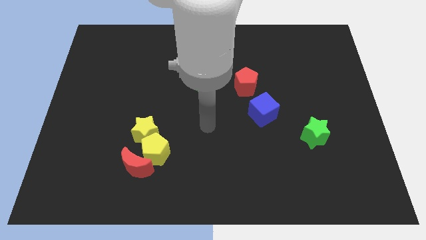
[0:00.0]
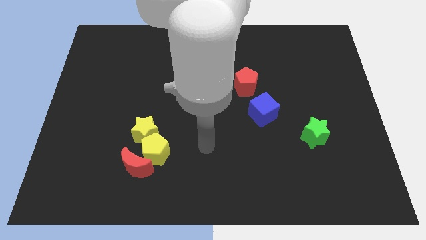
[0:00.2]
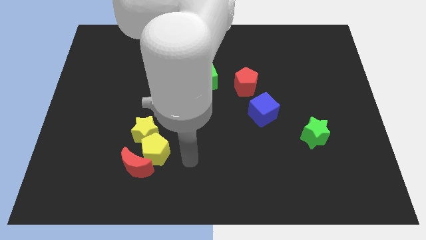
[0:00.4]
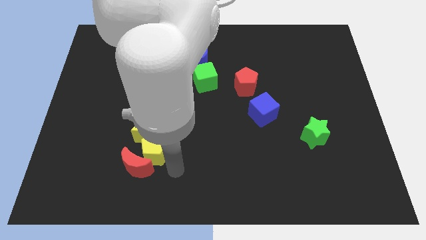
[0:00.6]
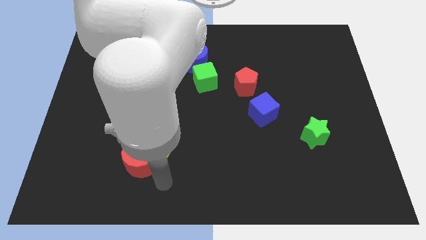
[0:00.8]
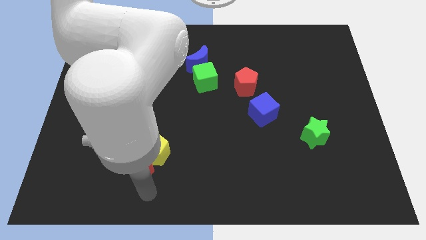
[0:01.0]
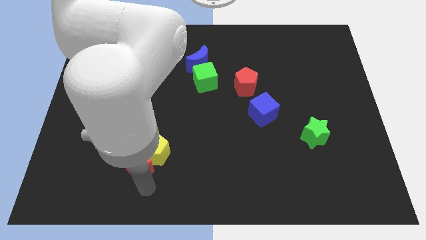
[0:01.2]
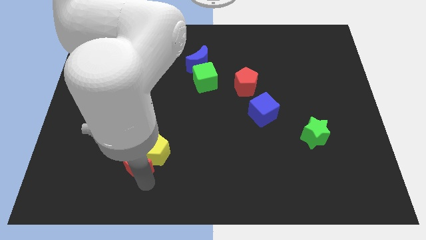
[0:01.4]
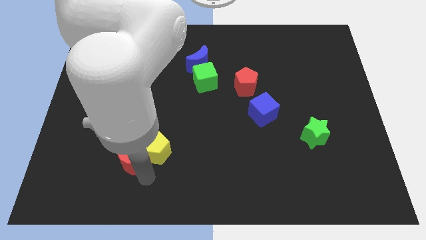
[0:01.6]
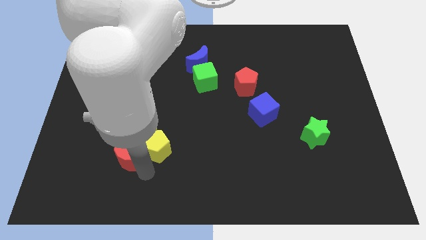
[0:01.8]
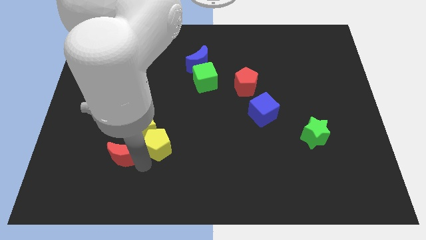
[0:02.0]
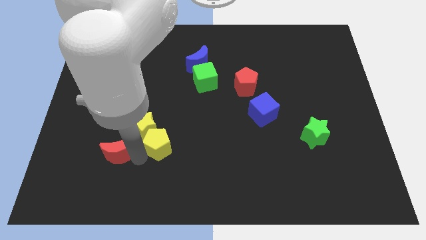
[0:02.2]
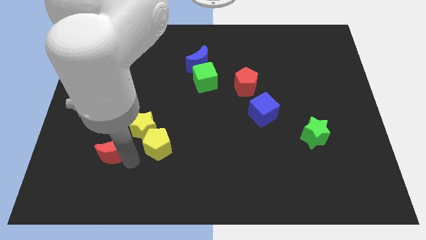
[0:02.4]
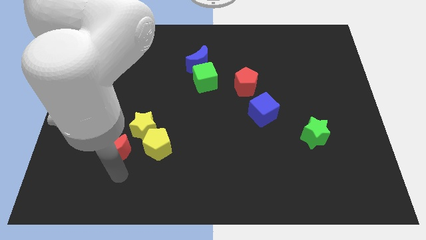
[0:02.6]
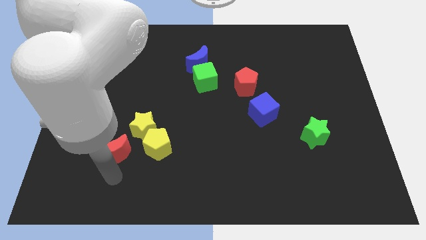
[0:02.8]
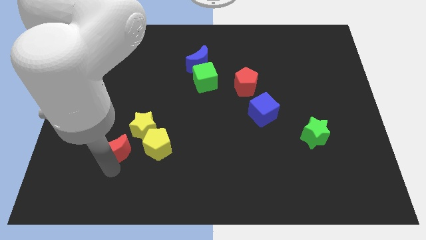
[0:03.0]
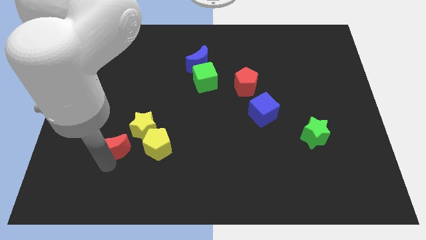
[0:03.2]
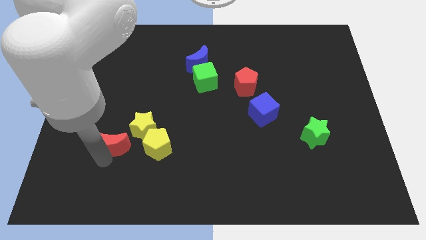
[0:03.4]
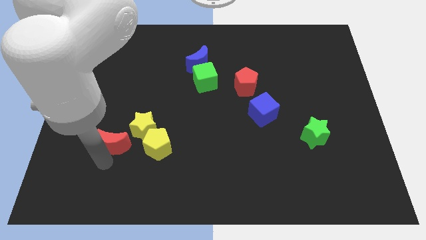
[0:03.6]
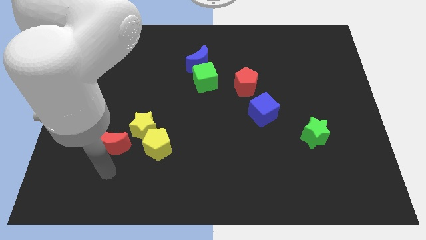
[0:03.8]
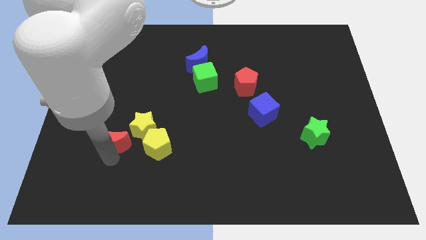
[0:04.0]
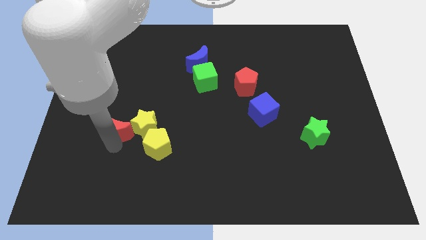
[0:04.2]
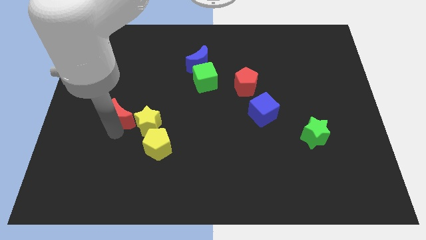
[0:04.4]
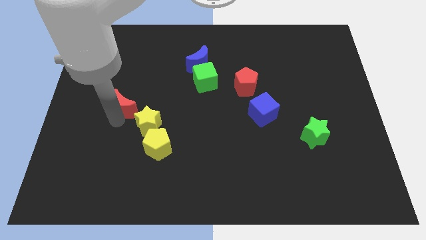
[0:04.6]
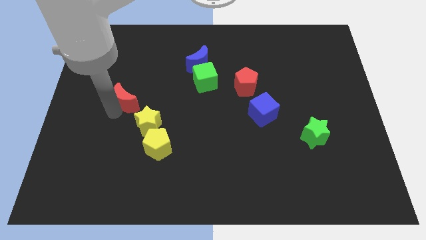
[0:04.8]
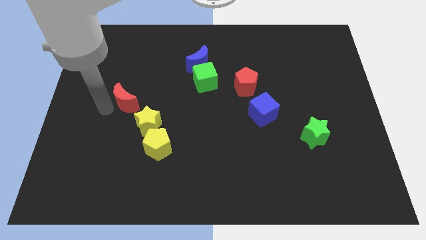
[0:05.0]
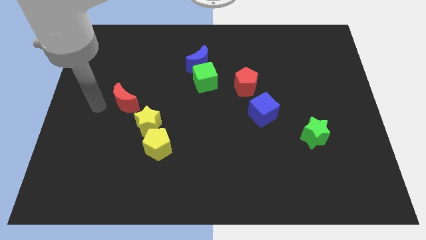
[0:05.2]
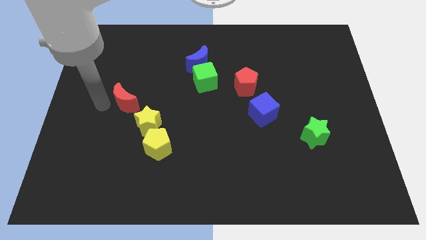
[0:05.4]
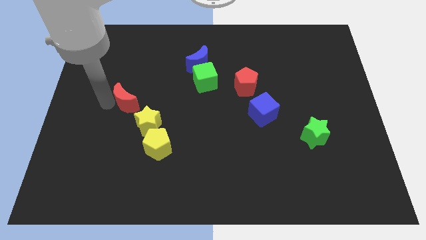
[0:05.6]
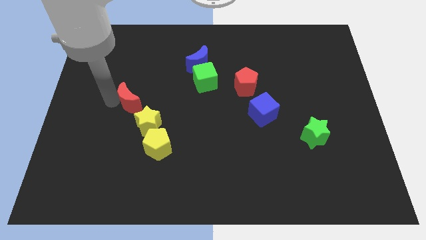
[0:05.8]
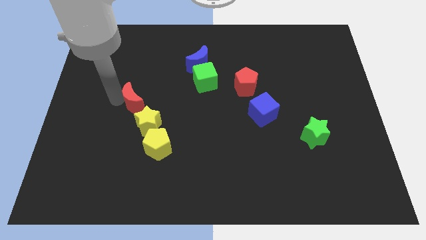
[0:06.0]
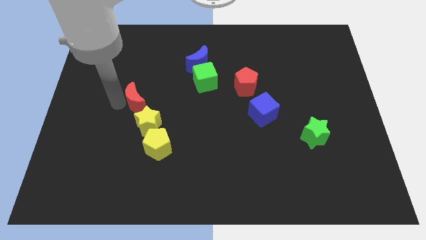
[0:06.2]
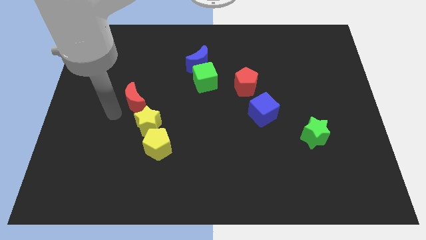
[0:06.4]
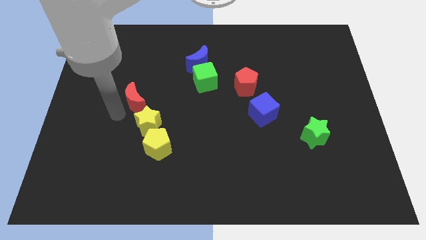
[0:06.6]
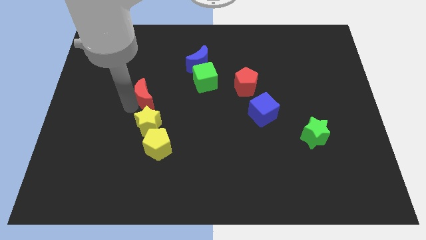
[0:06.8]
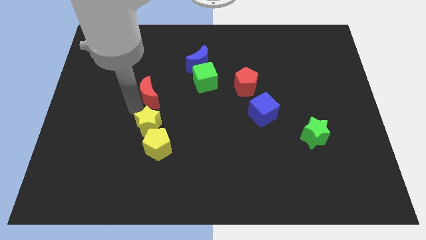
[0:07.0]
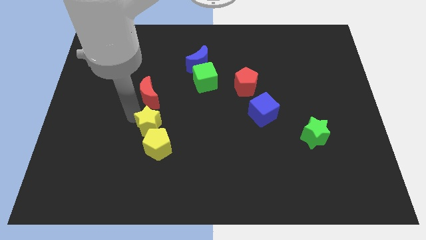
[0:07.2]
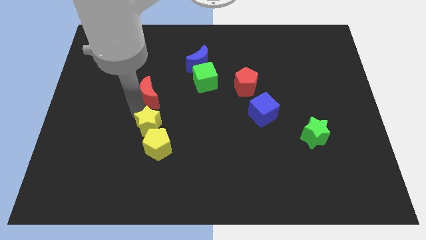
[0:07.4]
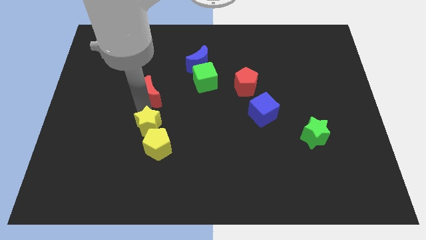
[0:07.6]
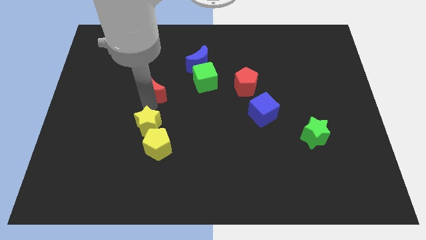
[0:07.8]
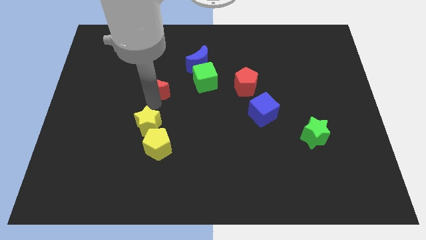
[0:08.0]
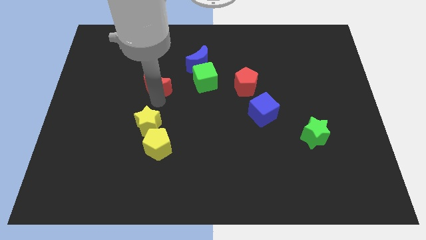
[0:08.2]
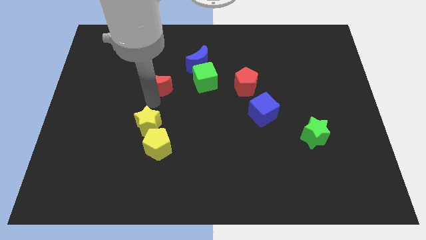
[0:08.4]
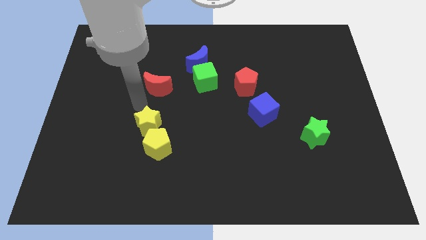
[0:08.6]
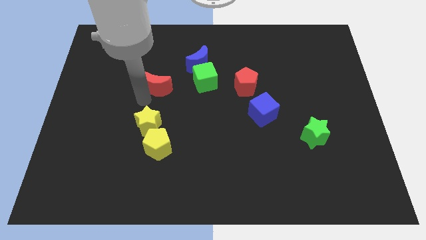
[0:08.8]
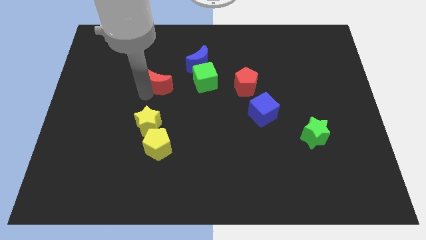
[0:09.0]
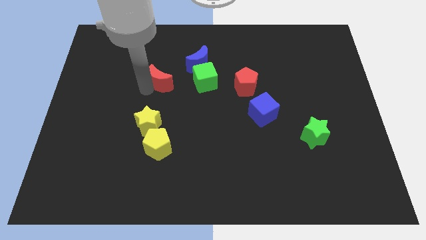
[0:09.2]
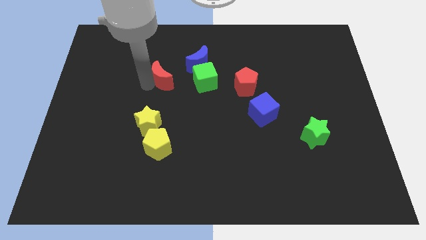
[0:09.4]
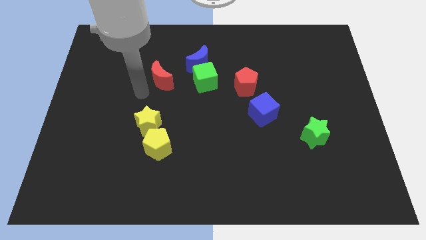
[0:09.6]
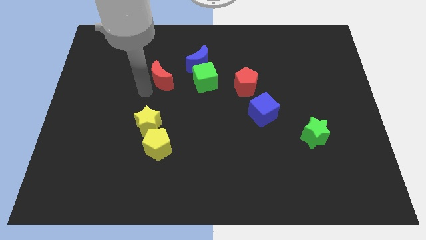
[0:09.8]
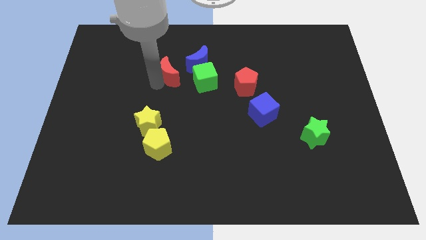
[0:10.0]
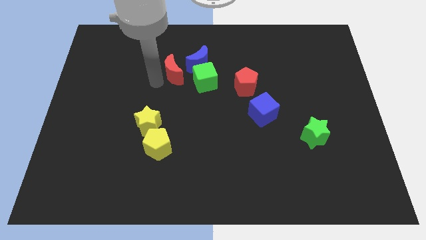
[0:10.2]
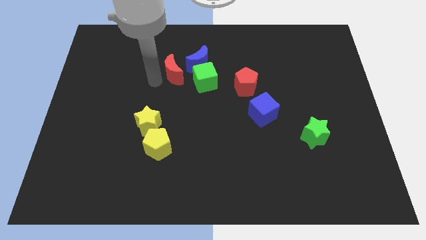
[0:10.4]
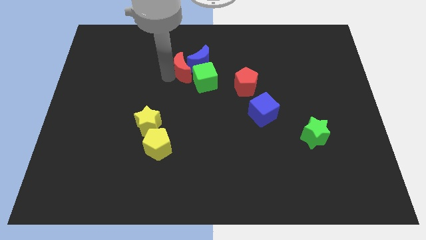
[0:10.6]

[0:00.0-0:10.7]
put the red moon to the blue moon

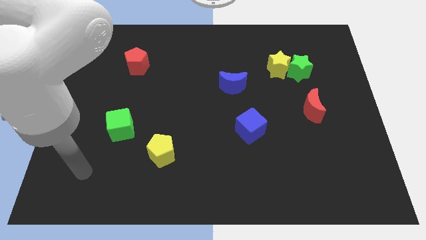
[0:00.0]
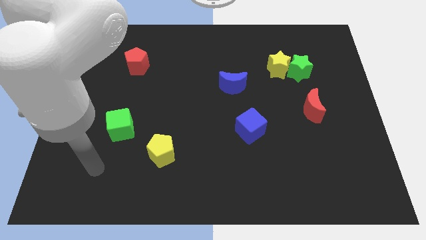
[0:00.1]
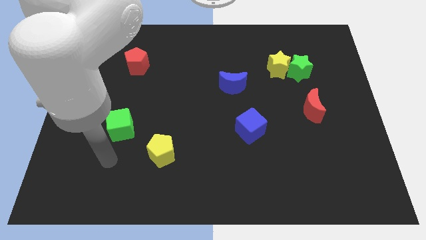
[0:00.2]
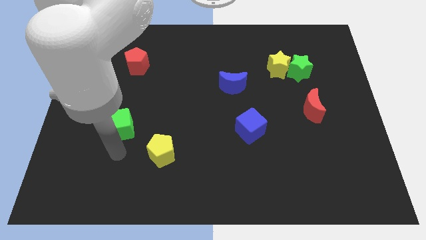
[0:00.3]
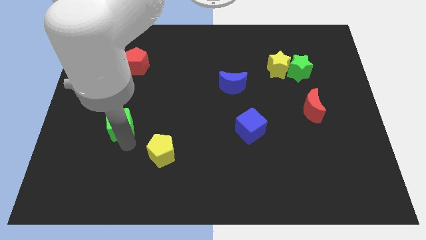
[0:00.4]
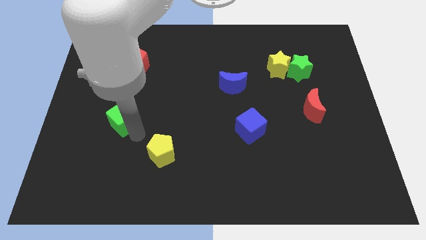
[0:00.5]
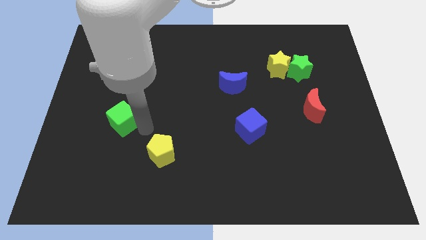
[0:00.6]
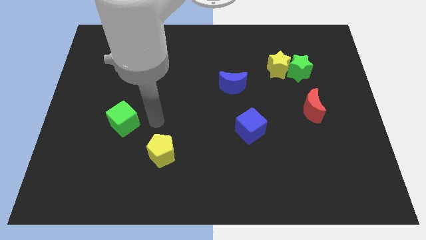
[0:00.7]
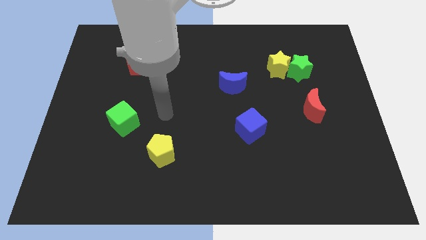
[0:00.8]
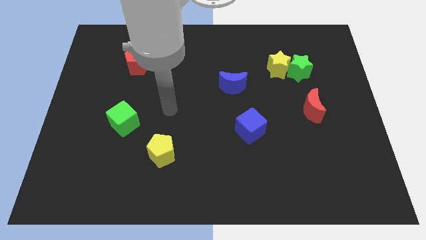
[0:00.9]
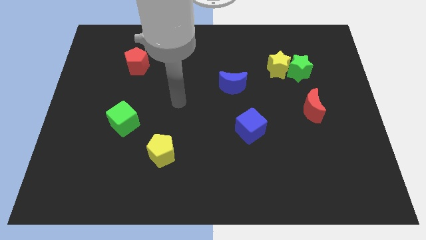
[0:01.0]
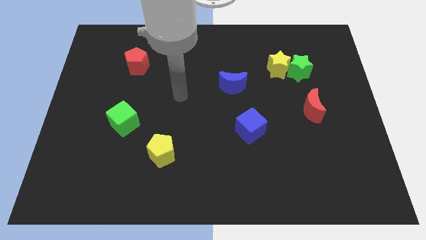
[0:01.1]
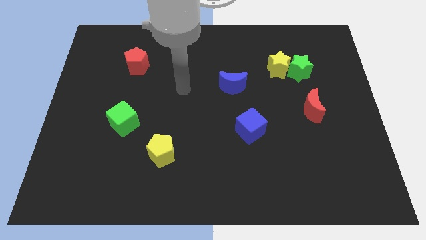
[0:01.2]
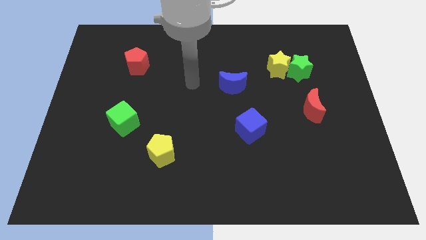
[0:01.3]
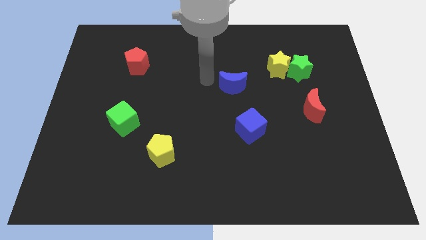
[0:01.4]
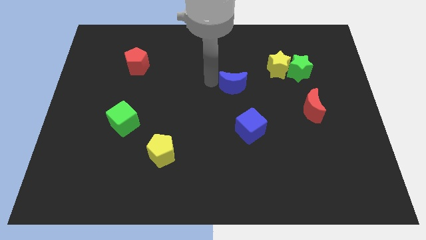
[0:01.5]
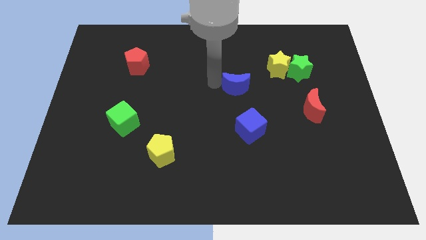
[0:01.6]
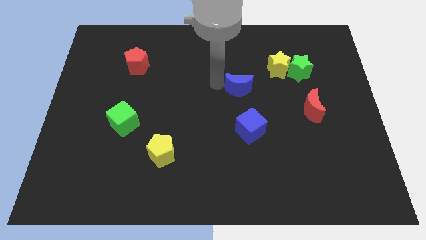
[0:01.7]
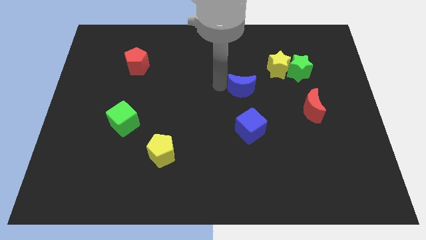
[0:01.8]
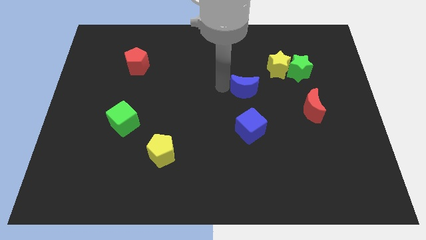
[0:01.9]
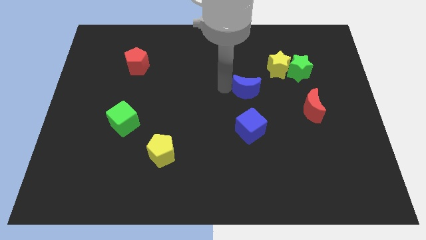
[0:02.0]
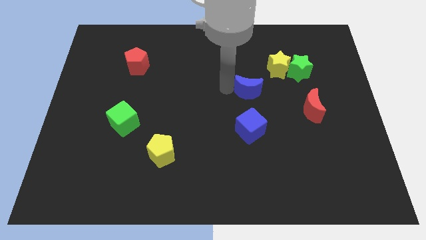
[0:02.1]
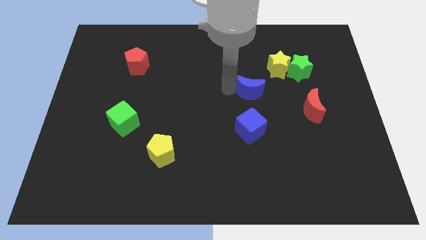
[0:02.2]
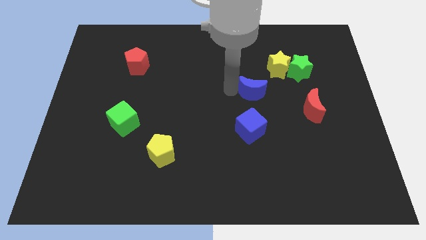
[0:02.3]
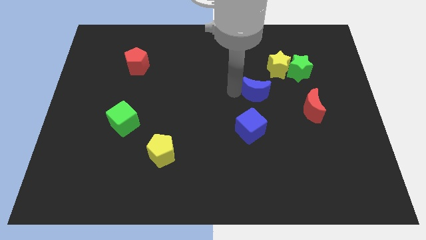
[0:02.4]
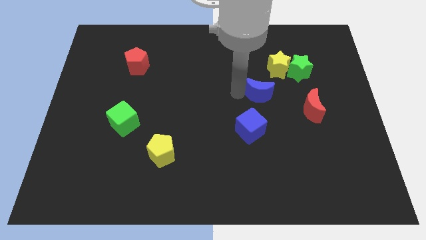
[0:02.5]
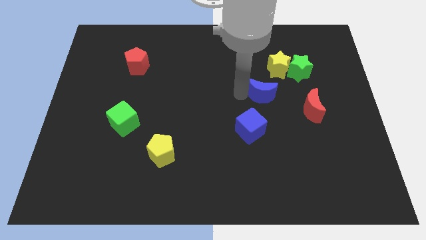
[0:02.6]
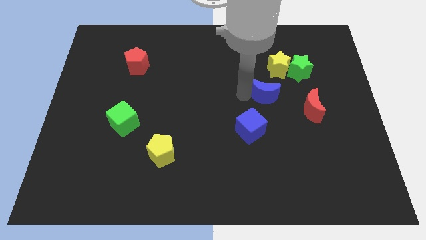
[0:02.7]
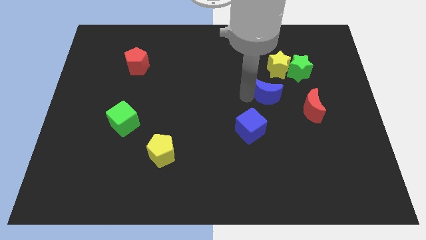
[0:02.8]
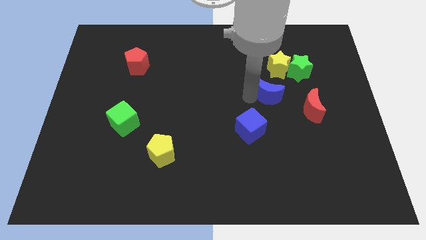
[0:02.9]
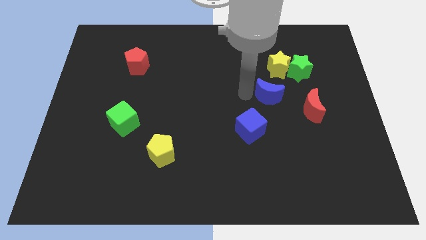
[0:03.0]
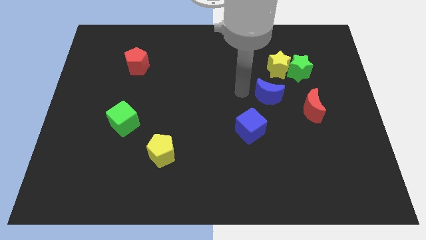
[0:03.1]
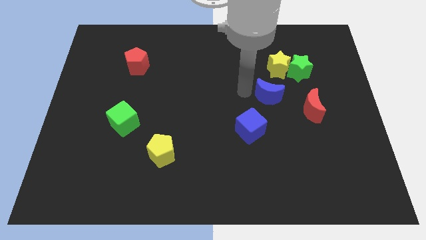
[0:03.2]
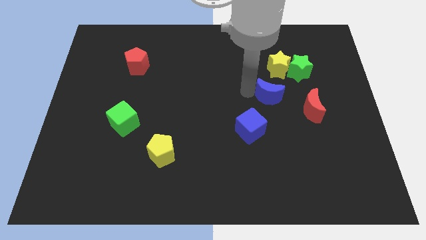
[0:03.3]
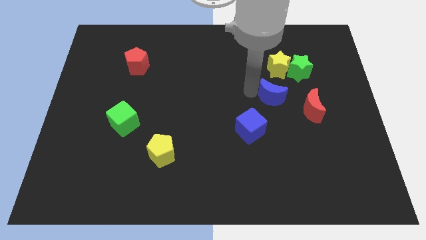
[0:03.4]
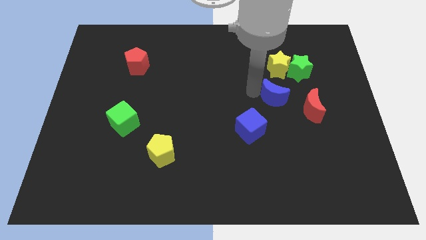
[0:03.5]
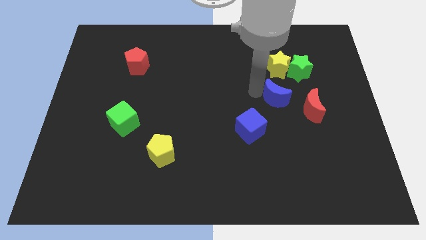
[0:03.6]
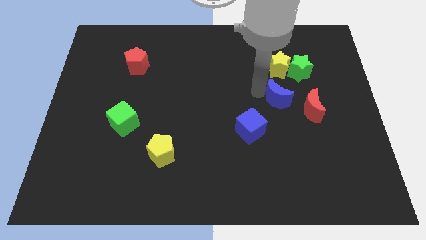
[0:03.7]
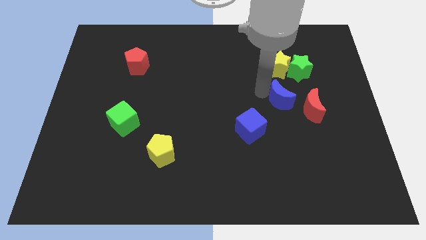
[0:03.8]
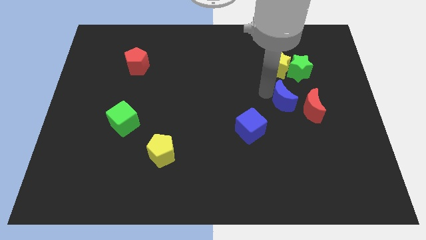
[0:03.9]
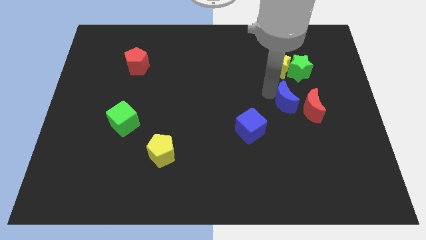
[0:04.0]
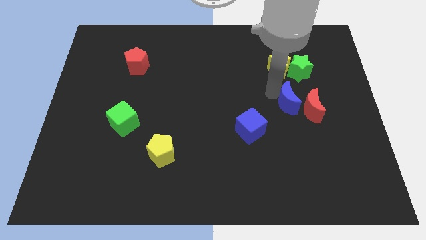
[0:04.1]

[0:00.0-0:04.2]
slide the blue moon close to the red moon
